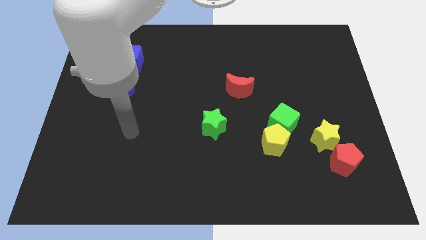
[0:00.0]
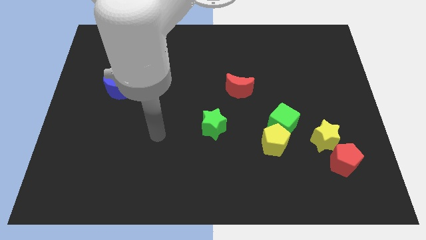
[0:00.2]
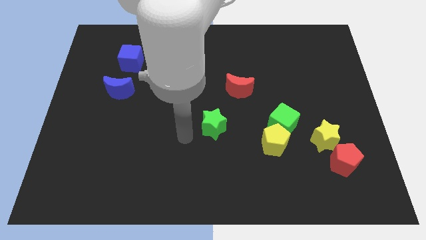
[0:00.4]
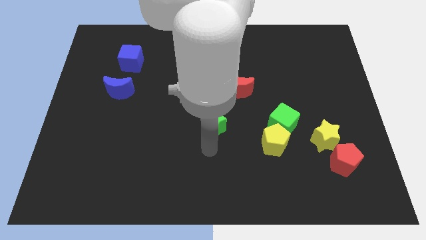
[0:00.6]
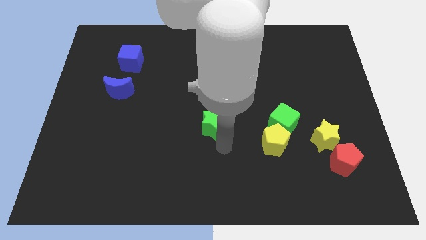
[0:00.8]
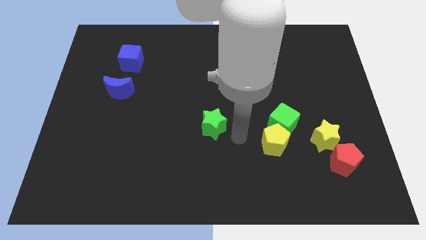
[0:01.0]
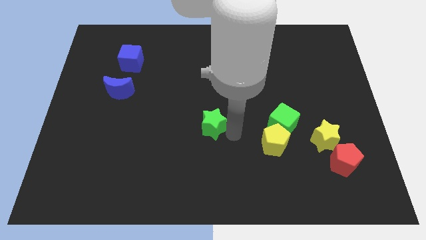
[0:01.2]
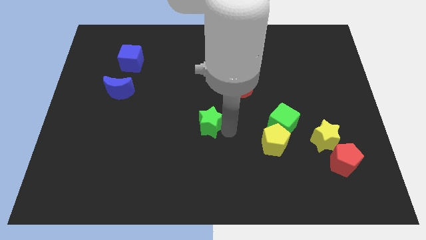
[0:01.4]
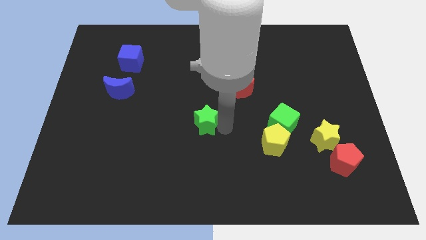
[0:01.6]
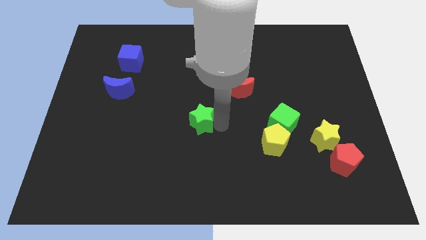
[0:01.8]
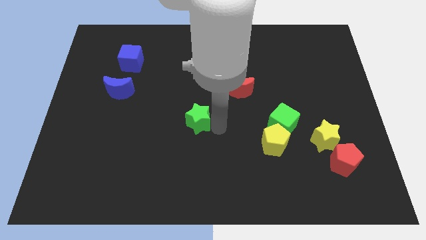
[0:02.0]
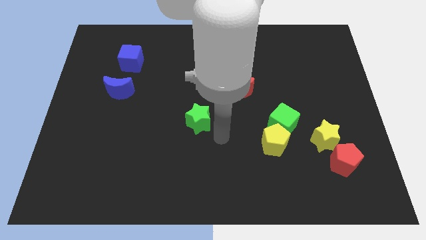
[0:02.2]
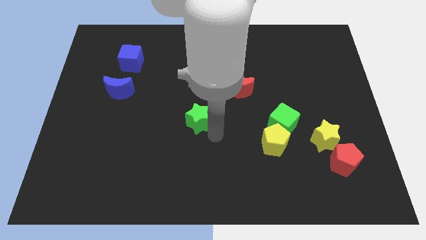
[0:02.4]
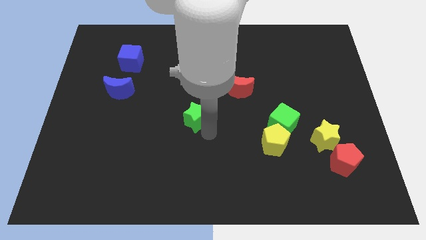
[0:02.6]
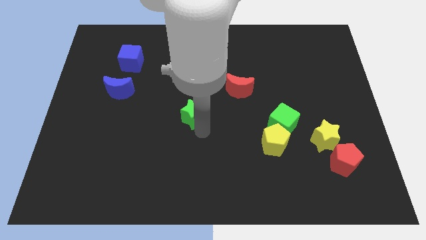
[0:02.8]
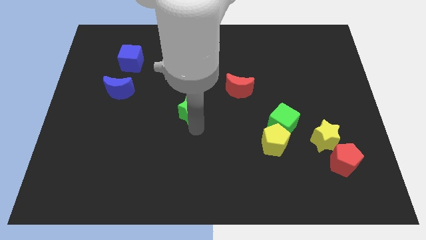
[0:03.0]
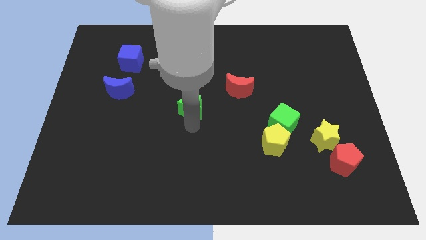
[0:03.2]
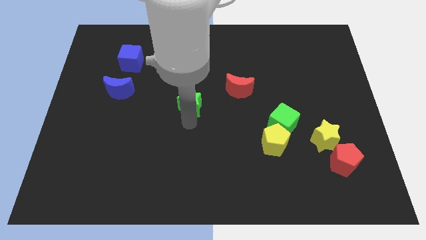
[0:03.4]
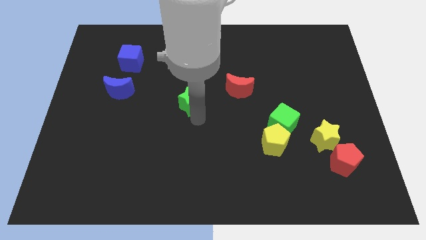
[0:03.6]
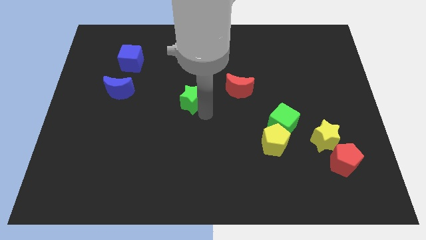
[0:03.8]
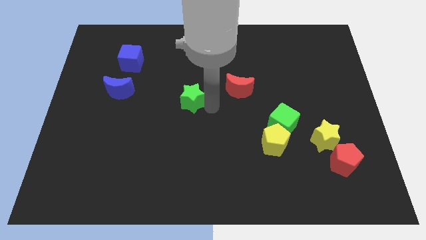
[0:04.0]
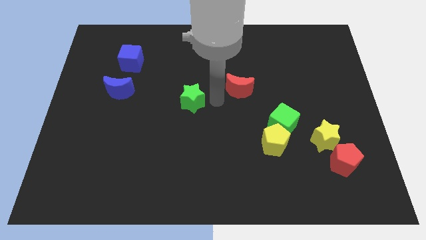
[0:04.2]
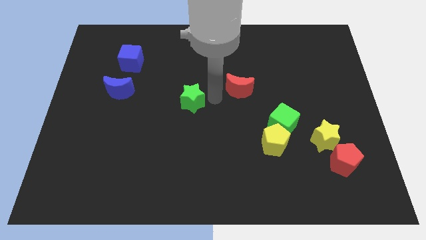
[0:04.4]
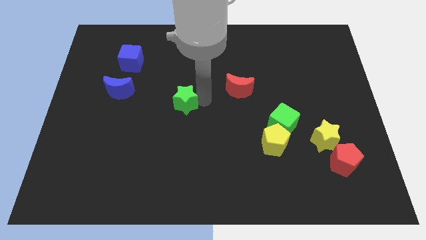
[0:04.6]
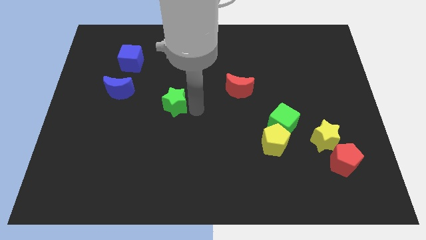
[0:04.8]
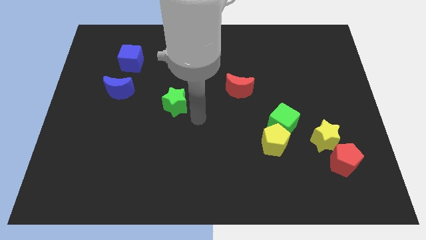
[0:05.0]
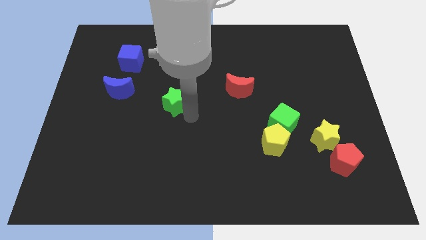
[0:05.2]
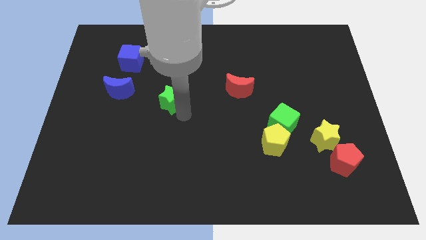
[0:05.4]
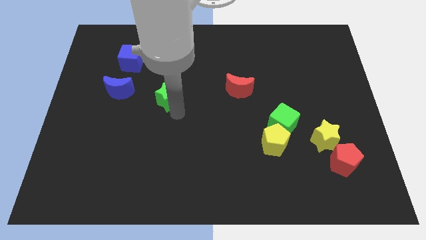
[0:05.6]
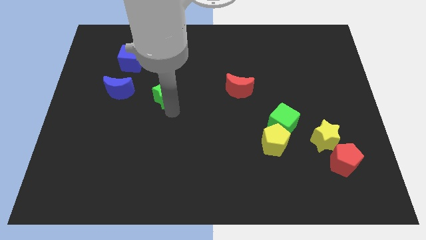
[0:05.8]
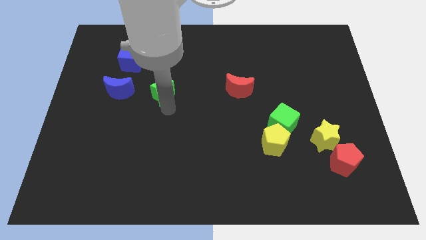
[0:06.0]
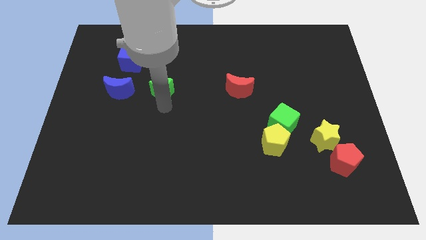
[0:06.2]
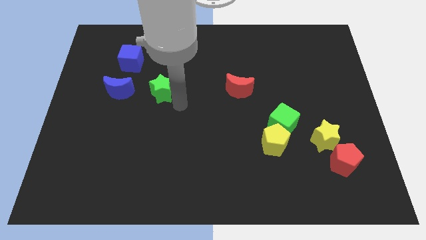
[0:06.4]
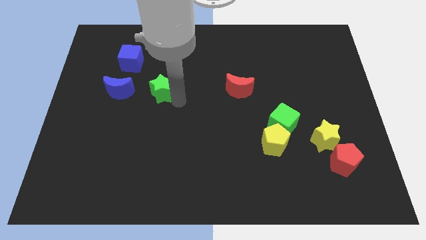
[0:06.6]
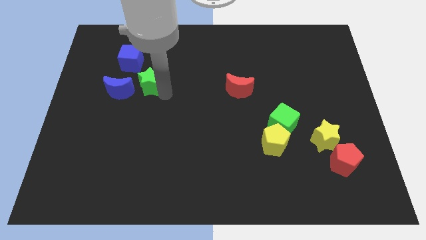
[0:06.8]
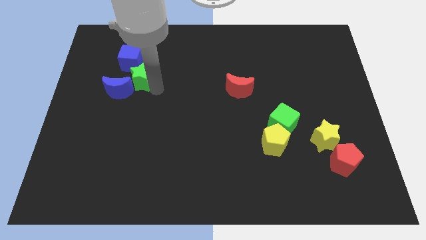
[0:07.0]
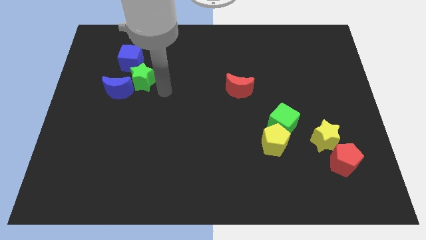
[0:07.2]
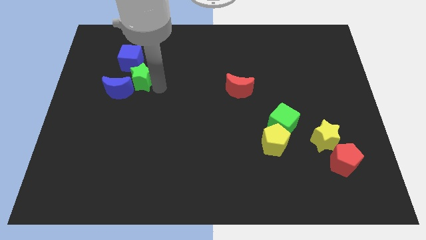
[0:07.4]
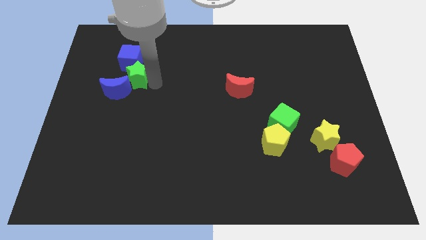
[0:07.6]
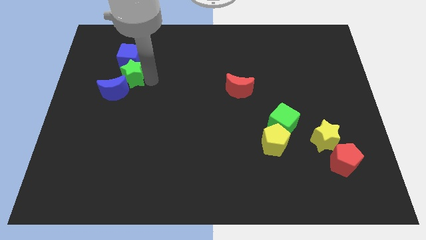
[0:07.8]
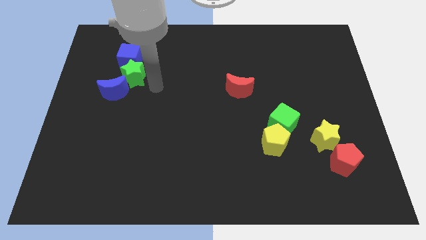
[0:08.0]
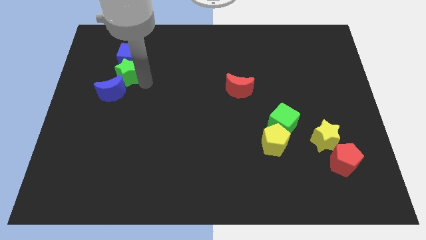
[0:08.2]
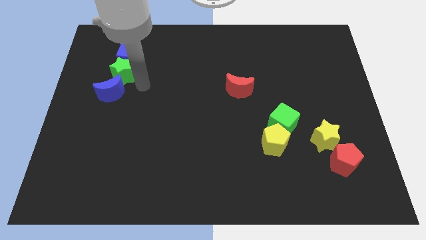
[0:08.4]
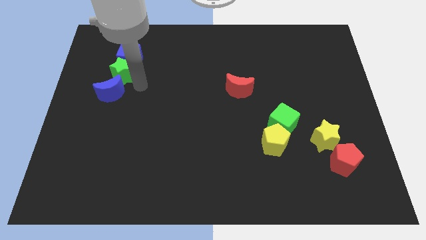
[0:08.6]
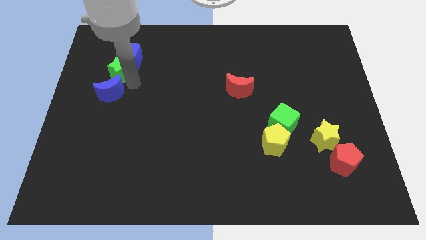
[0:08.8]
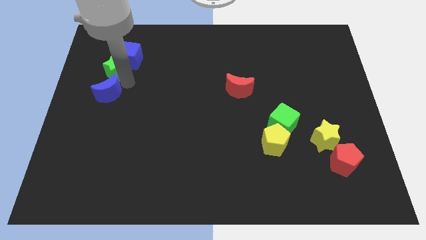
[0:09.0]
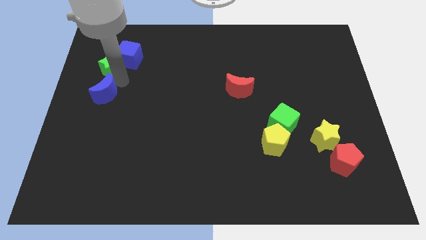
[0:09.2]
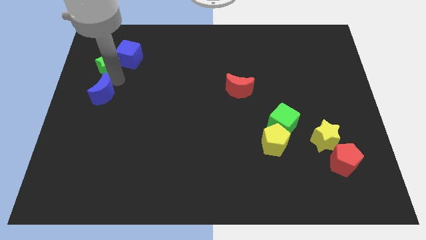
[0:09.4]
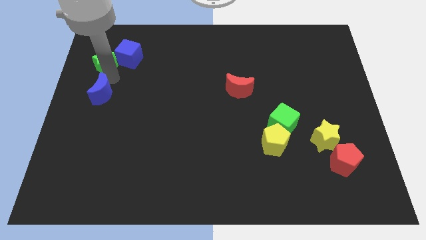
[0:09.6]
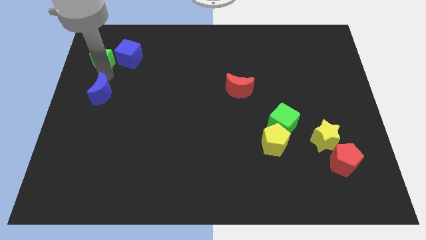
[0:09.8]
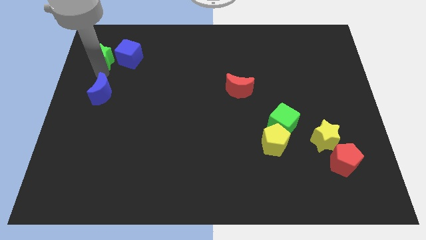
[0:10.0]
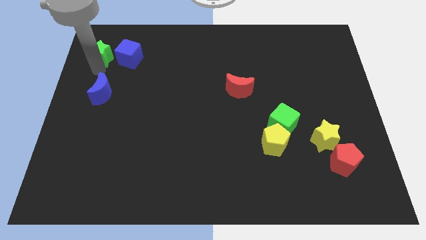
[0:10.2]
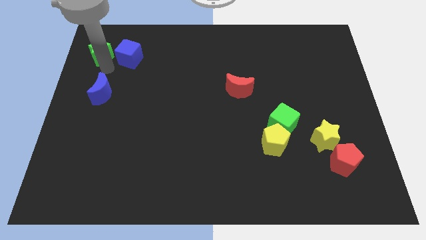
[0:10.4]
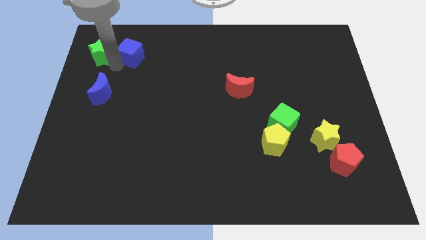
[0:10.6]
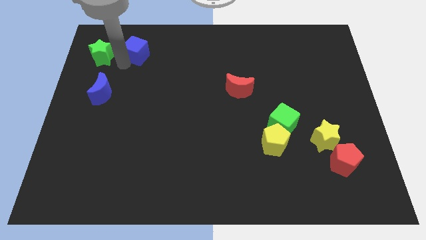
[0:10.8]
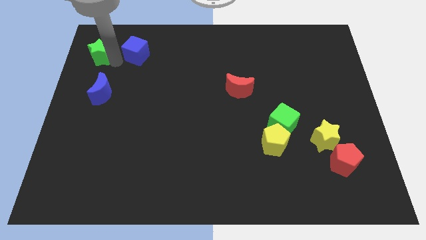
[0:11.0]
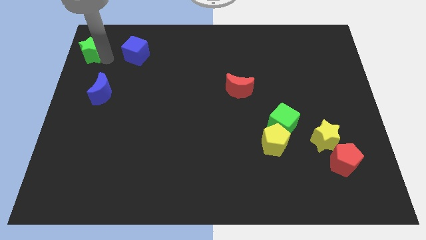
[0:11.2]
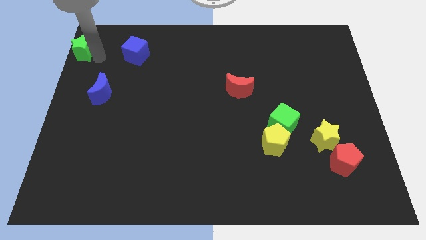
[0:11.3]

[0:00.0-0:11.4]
push the green star to the top left corner
